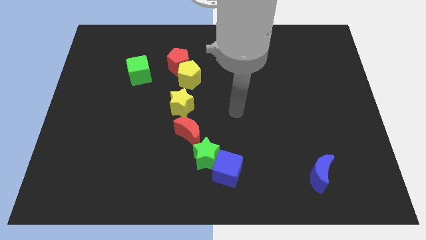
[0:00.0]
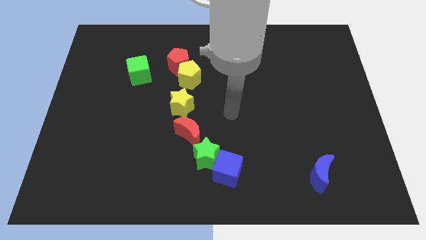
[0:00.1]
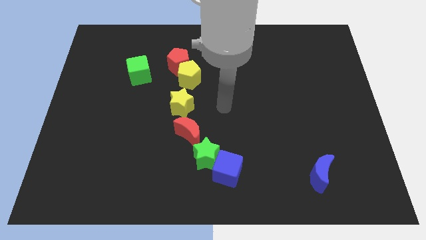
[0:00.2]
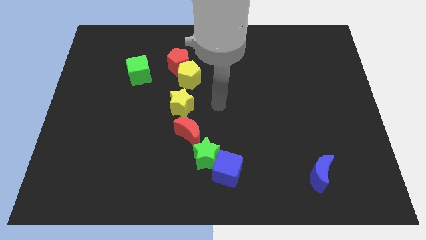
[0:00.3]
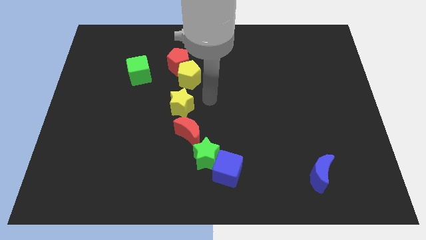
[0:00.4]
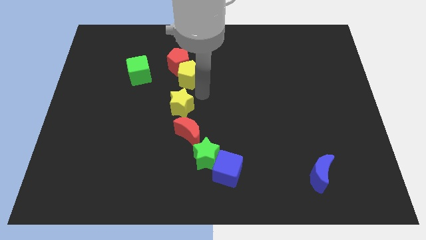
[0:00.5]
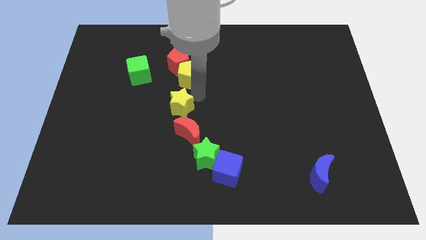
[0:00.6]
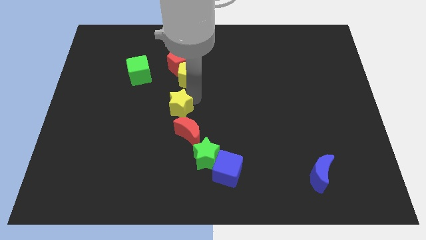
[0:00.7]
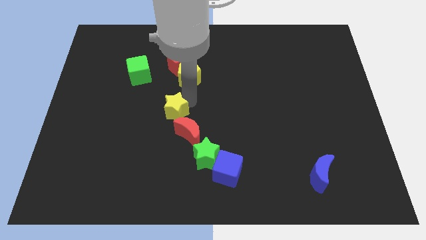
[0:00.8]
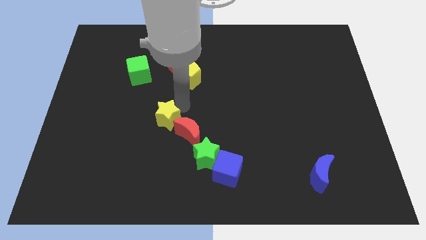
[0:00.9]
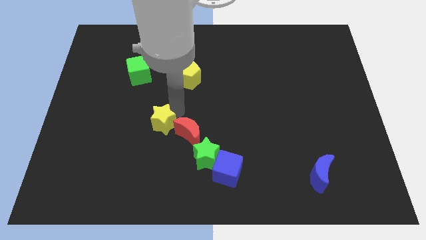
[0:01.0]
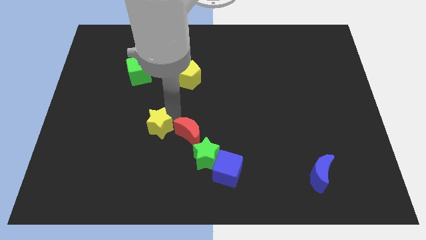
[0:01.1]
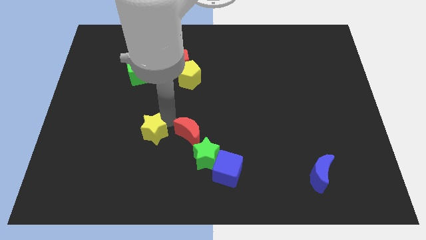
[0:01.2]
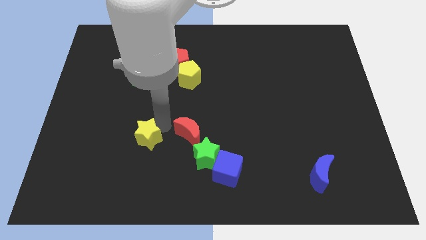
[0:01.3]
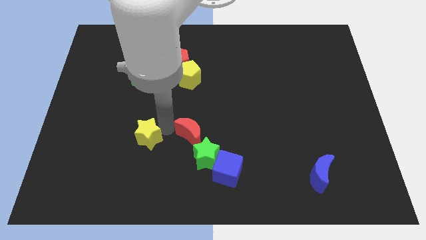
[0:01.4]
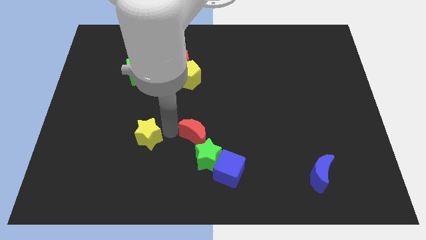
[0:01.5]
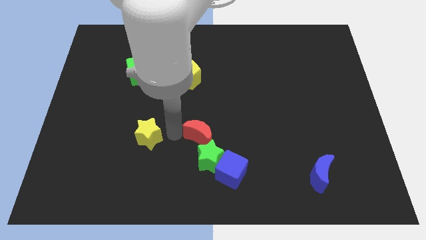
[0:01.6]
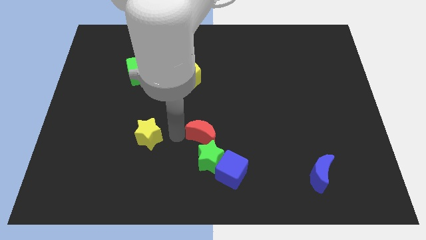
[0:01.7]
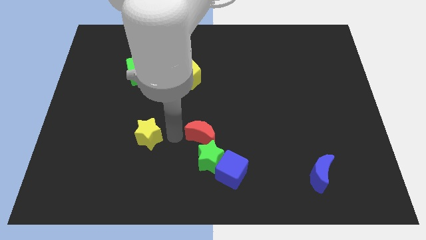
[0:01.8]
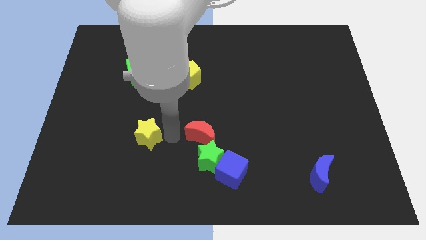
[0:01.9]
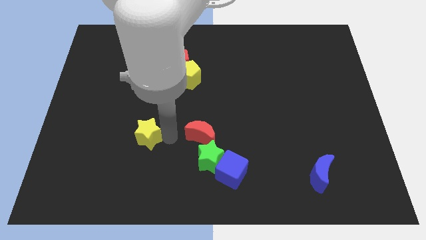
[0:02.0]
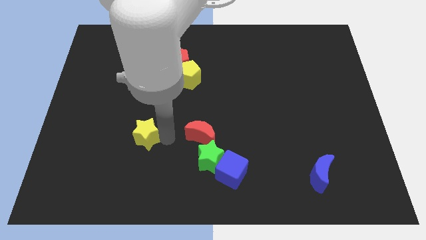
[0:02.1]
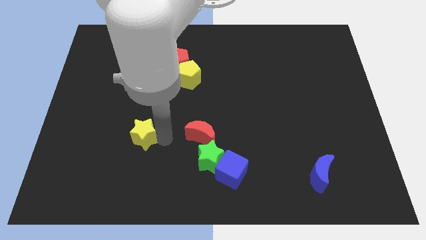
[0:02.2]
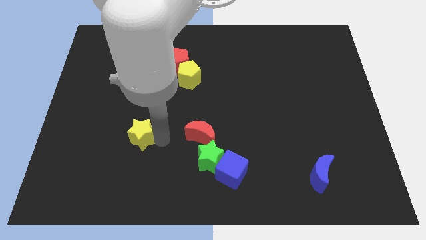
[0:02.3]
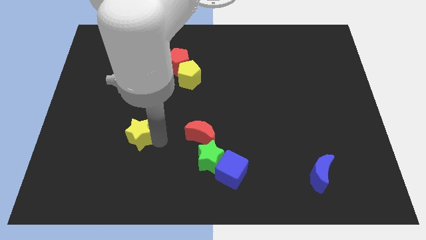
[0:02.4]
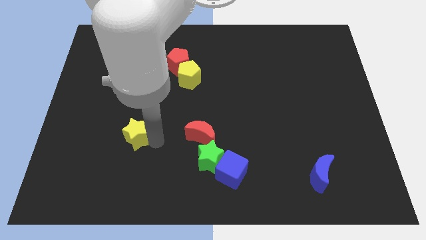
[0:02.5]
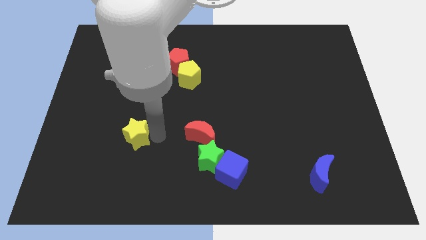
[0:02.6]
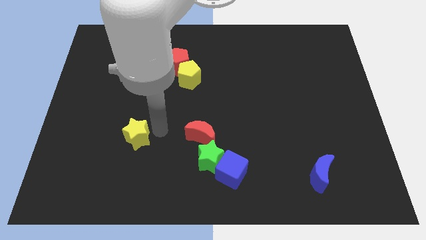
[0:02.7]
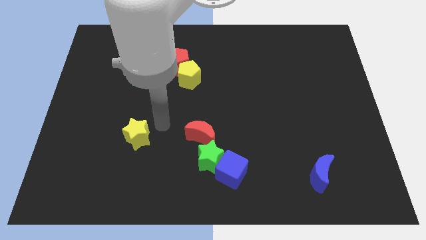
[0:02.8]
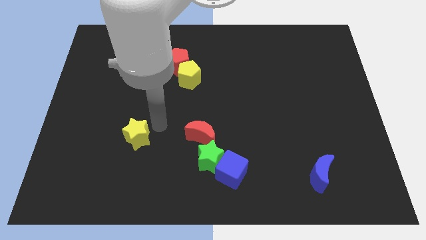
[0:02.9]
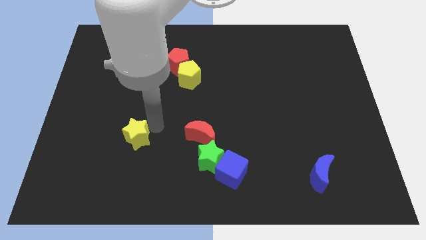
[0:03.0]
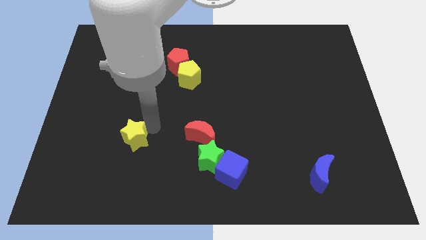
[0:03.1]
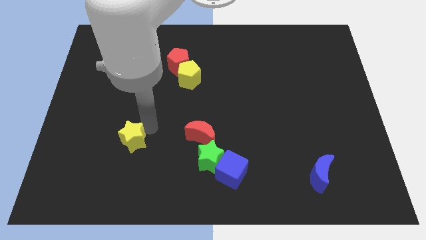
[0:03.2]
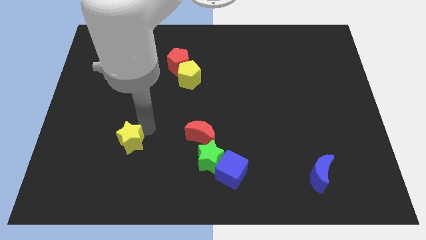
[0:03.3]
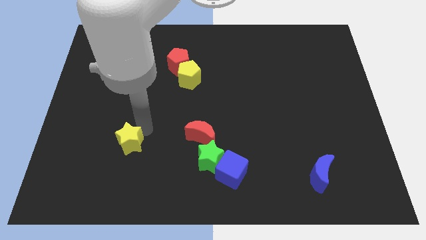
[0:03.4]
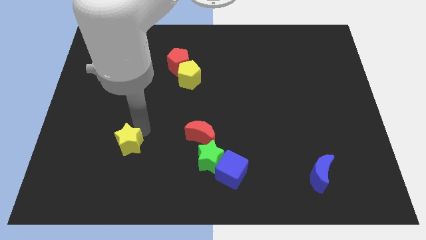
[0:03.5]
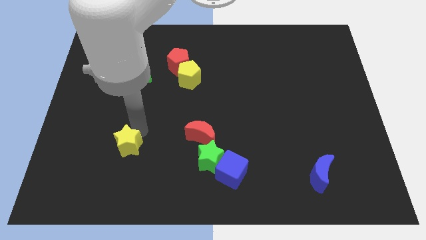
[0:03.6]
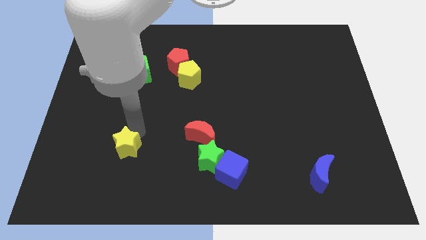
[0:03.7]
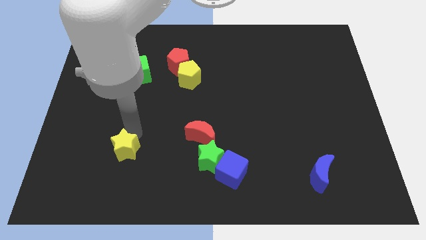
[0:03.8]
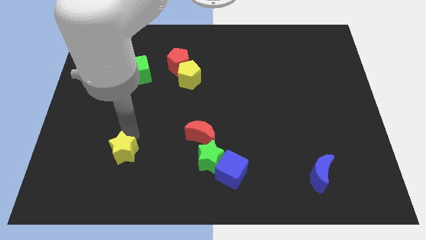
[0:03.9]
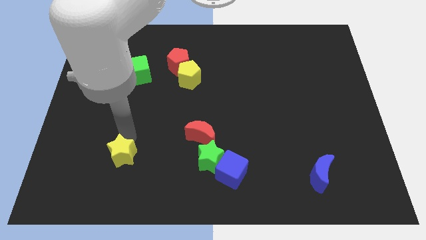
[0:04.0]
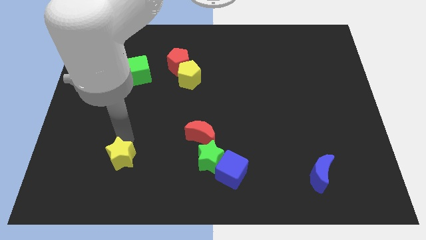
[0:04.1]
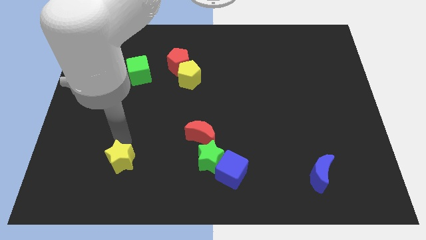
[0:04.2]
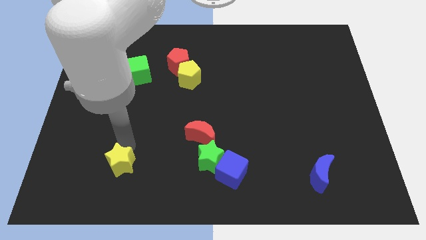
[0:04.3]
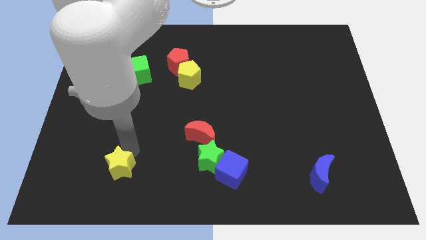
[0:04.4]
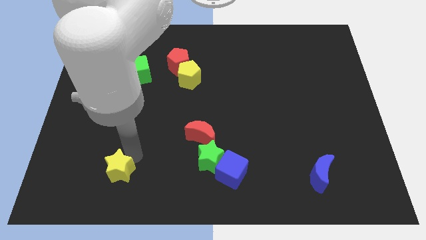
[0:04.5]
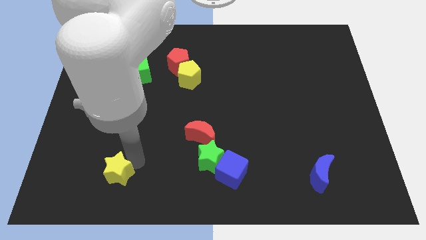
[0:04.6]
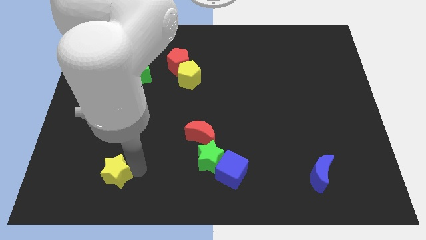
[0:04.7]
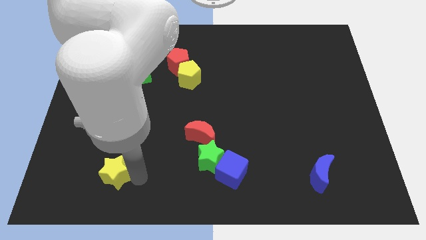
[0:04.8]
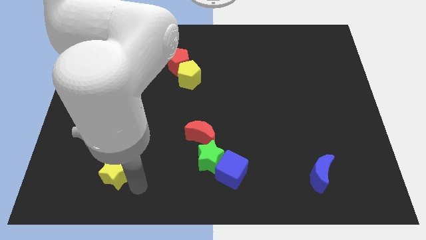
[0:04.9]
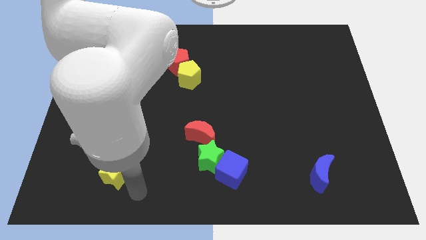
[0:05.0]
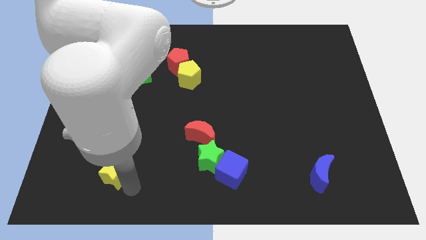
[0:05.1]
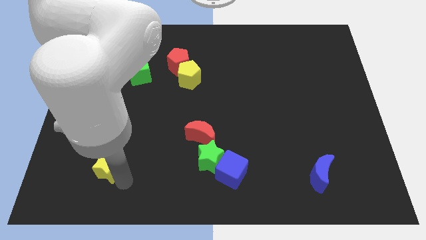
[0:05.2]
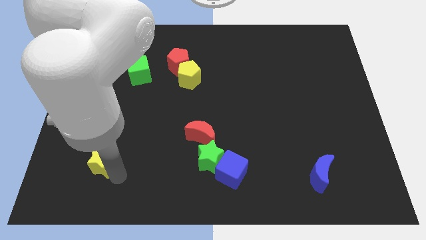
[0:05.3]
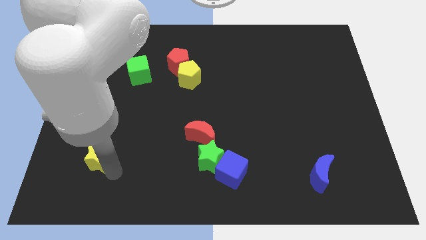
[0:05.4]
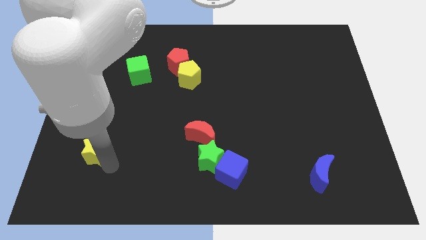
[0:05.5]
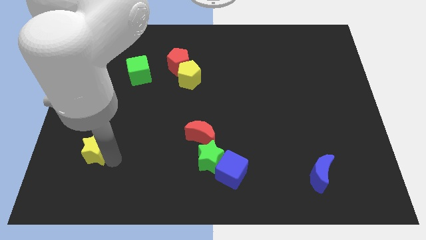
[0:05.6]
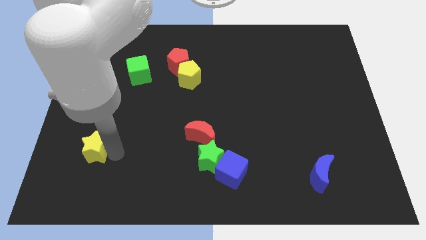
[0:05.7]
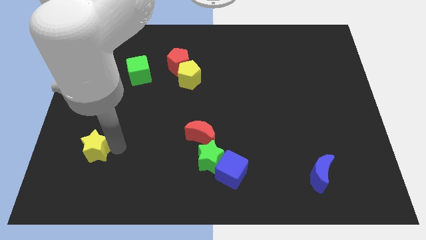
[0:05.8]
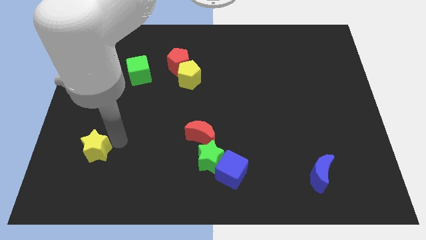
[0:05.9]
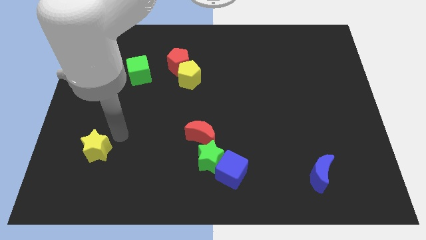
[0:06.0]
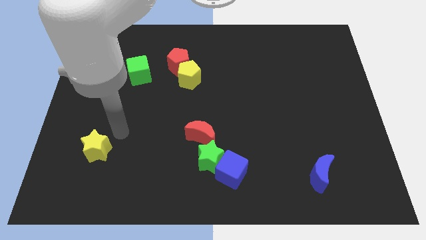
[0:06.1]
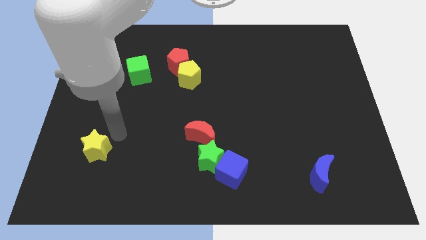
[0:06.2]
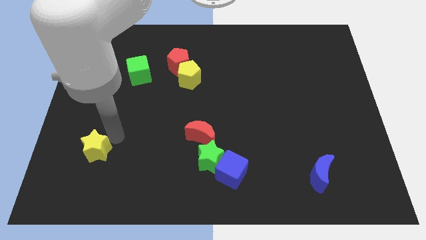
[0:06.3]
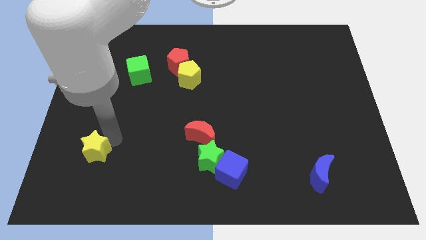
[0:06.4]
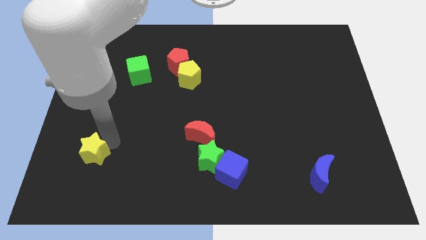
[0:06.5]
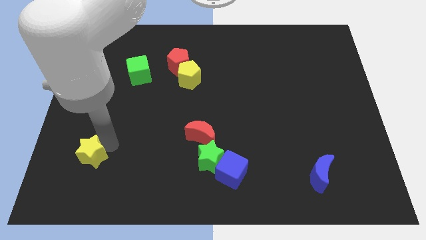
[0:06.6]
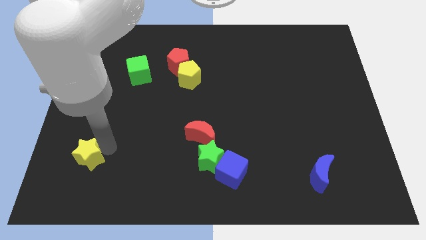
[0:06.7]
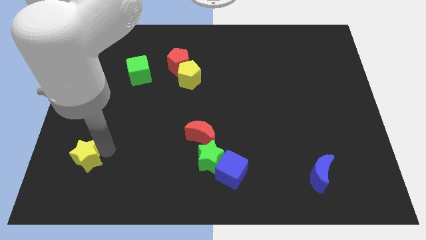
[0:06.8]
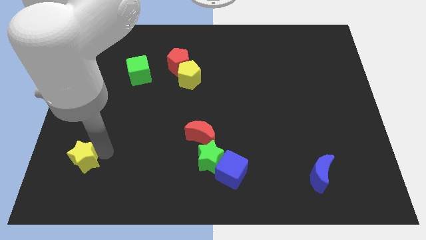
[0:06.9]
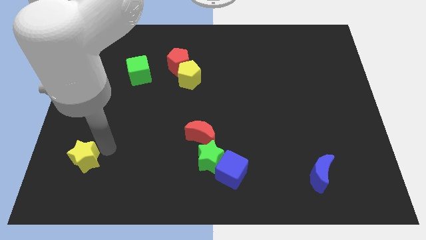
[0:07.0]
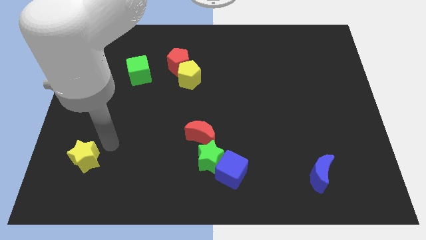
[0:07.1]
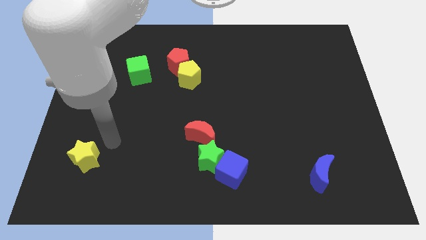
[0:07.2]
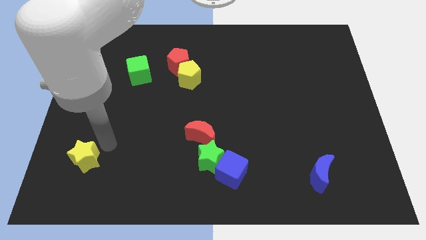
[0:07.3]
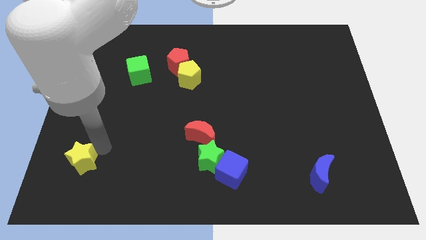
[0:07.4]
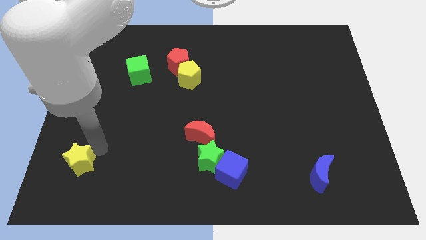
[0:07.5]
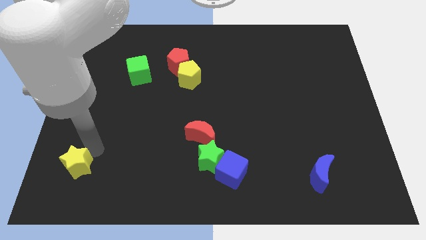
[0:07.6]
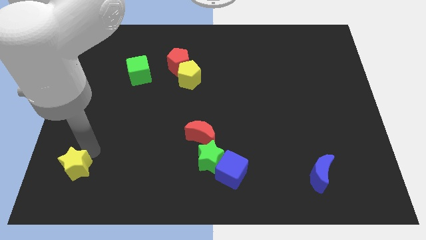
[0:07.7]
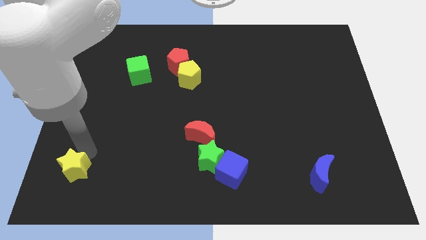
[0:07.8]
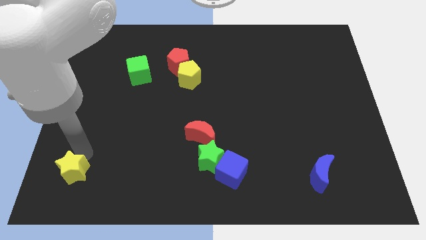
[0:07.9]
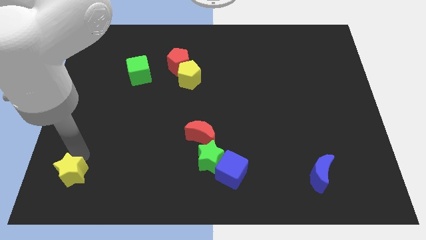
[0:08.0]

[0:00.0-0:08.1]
put the yellow star to the bottom left of the board
